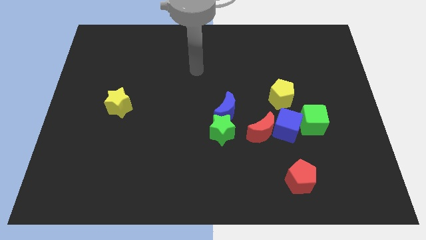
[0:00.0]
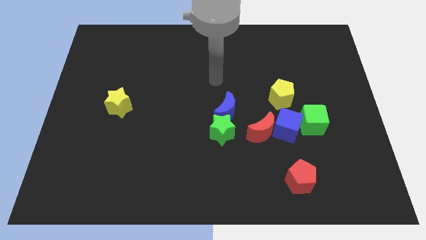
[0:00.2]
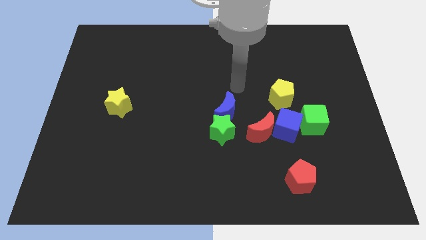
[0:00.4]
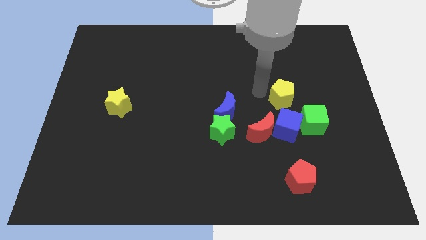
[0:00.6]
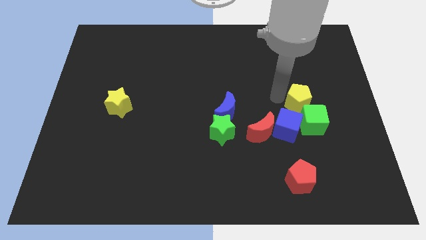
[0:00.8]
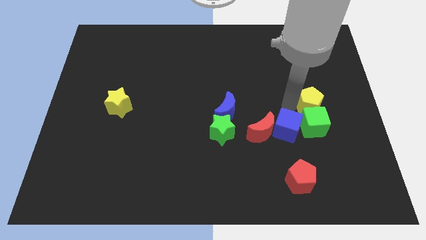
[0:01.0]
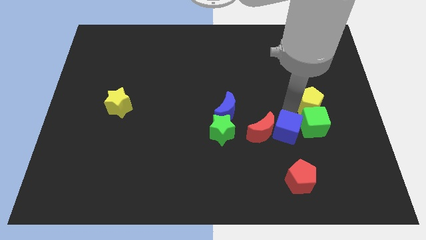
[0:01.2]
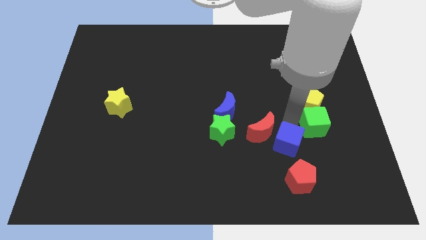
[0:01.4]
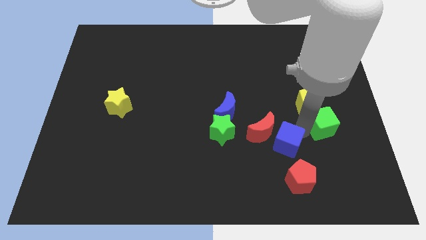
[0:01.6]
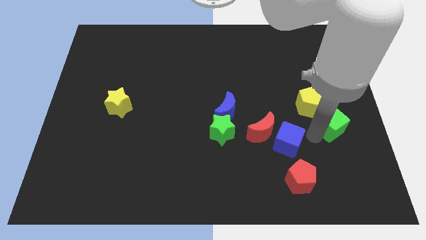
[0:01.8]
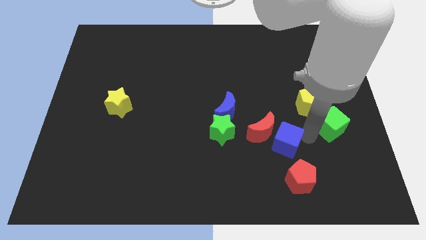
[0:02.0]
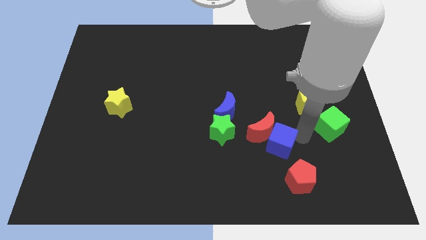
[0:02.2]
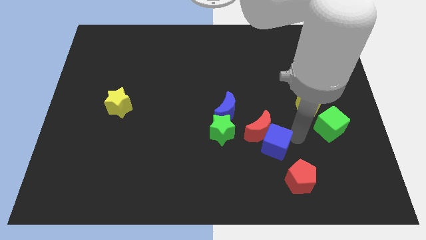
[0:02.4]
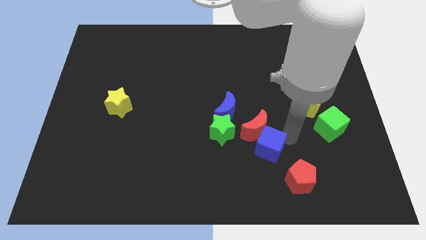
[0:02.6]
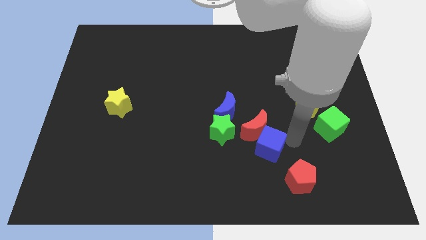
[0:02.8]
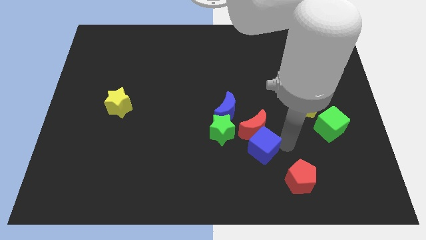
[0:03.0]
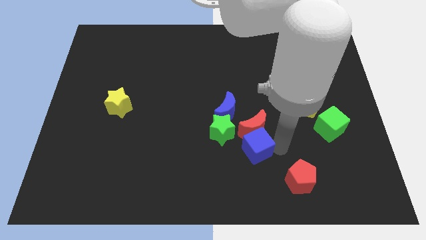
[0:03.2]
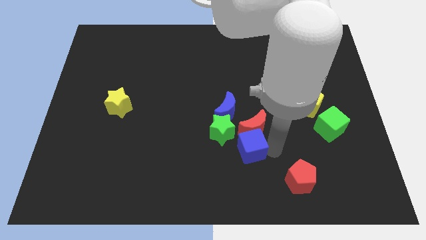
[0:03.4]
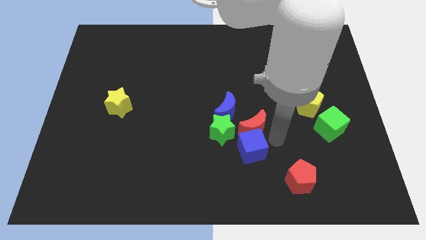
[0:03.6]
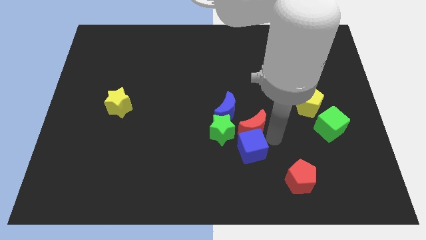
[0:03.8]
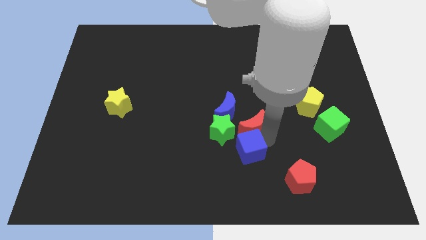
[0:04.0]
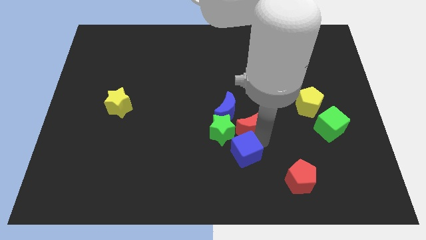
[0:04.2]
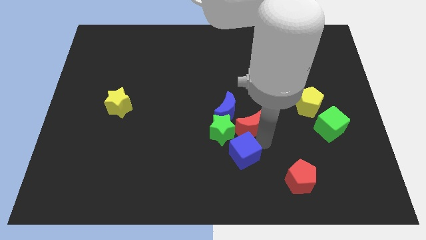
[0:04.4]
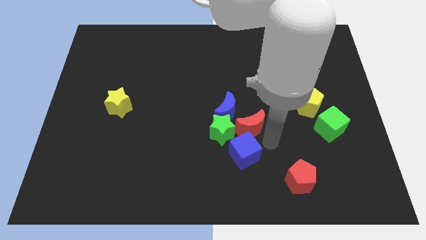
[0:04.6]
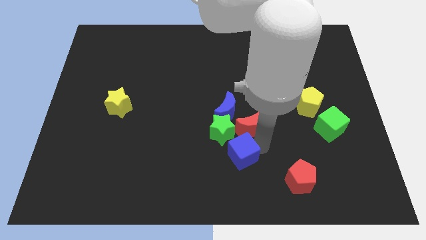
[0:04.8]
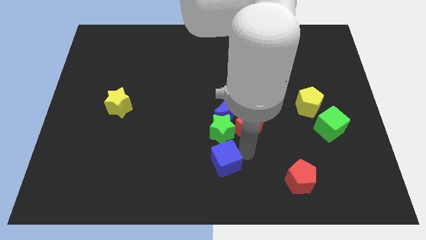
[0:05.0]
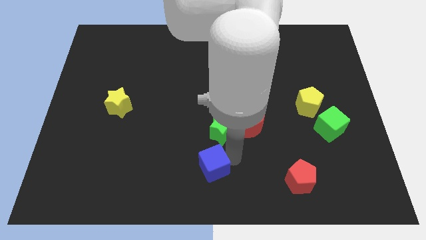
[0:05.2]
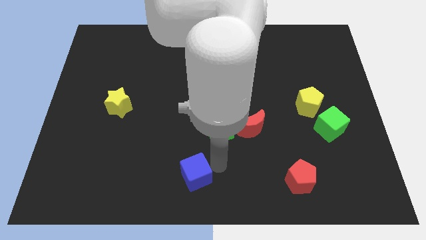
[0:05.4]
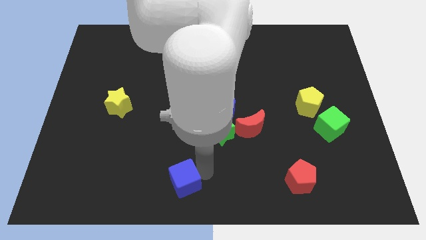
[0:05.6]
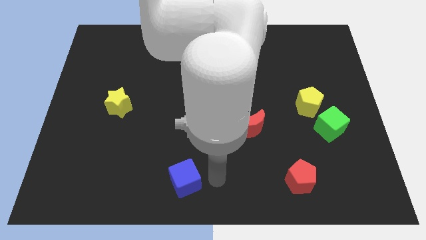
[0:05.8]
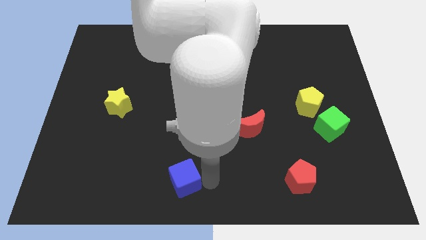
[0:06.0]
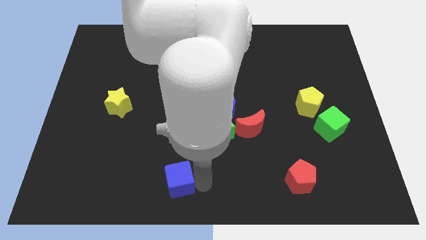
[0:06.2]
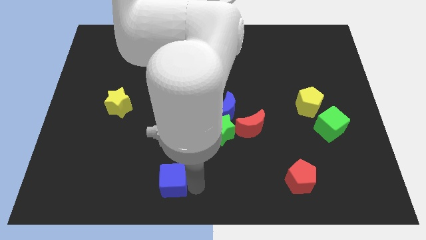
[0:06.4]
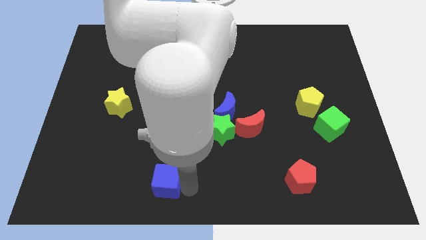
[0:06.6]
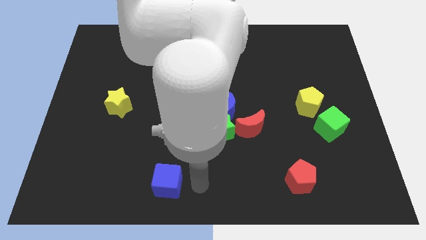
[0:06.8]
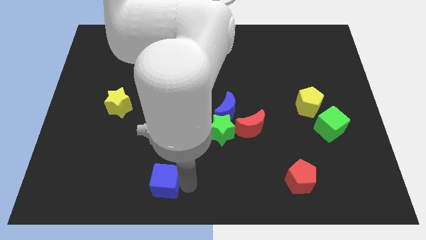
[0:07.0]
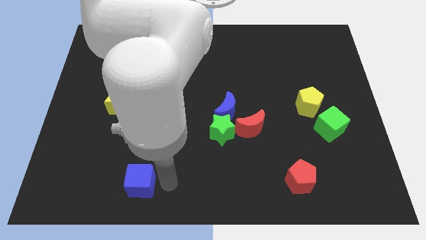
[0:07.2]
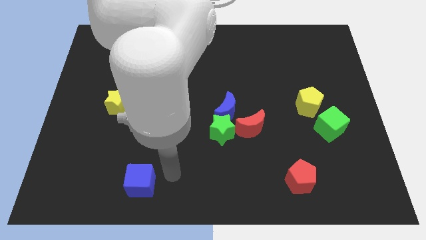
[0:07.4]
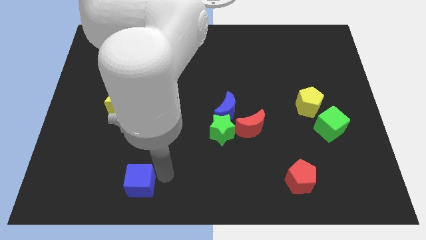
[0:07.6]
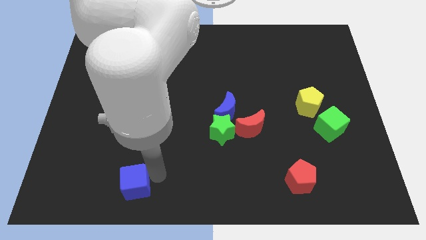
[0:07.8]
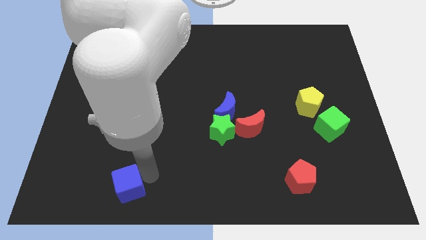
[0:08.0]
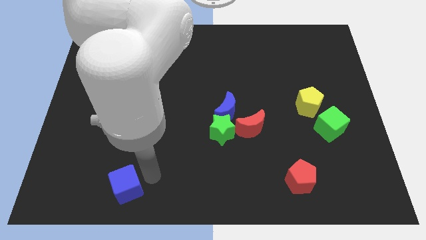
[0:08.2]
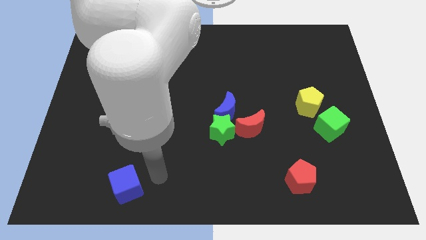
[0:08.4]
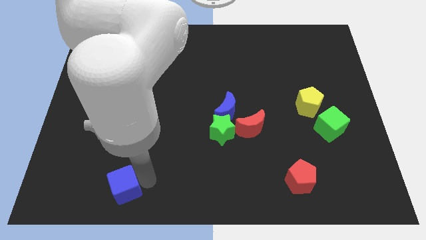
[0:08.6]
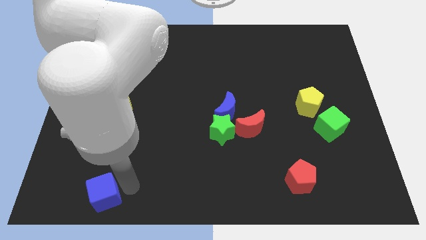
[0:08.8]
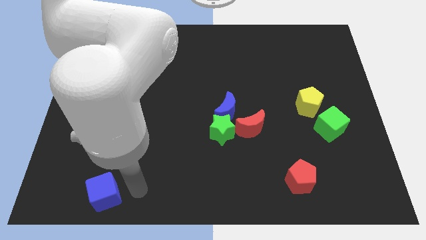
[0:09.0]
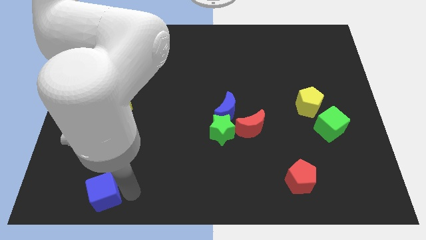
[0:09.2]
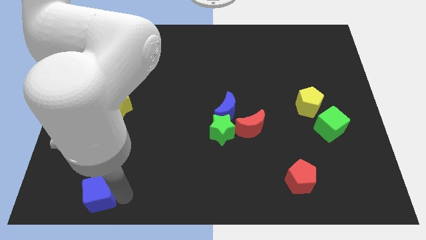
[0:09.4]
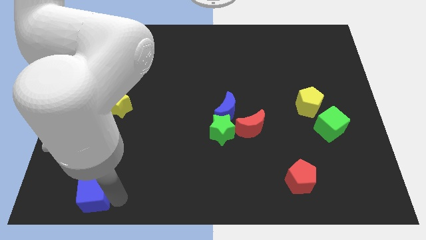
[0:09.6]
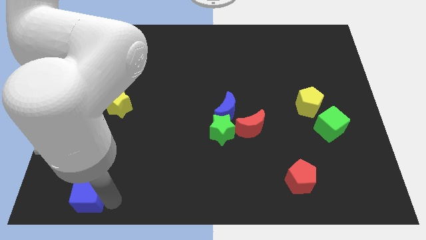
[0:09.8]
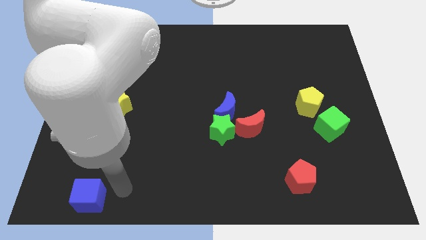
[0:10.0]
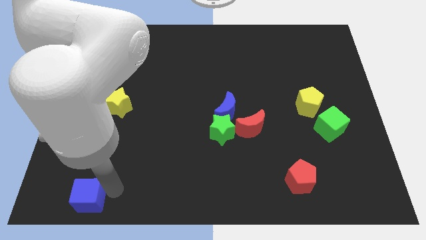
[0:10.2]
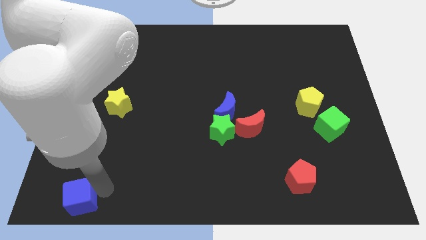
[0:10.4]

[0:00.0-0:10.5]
put the blue cube to the bottom left of the board

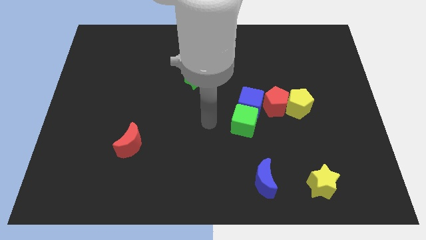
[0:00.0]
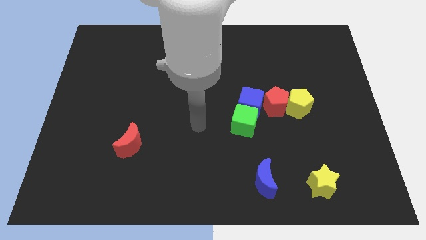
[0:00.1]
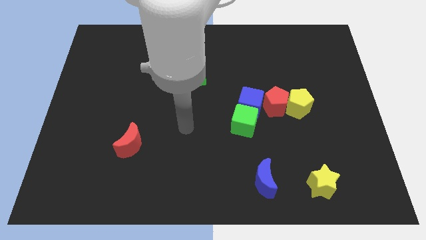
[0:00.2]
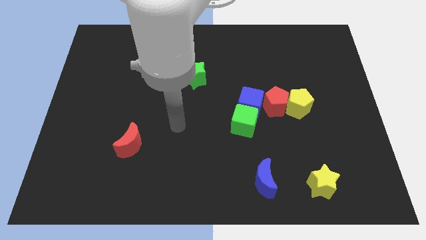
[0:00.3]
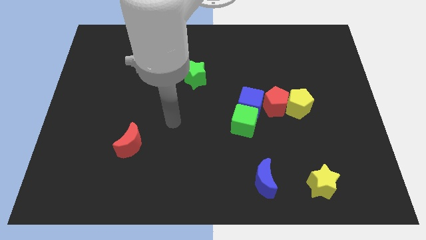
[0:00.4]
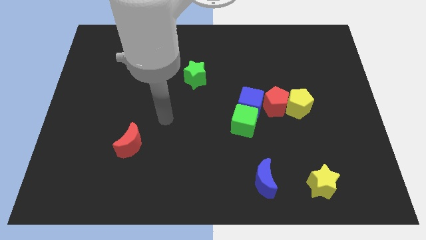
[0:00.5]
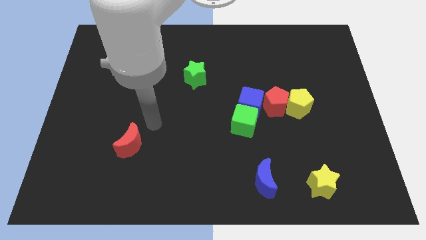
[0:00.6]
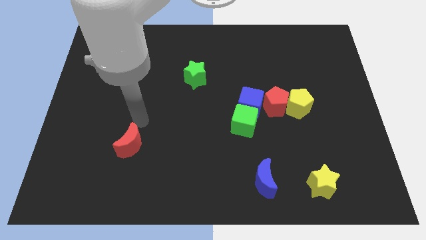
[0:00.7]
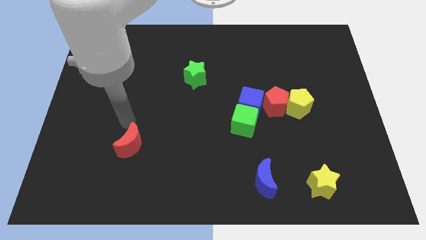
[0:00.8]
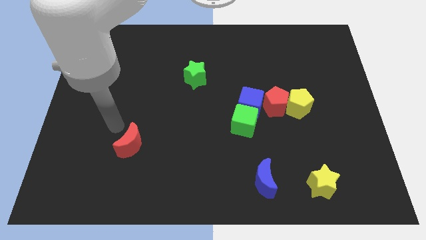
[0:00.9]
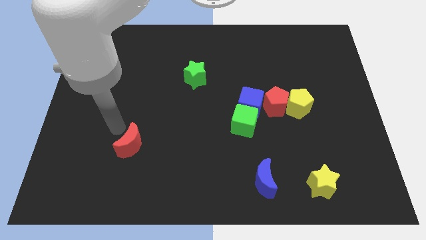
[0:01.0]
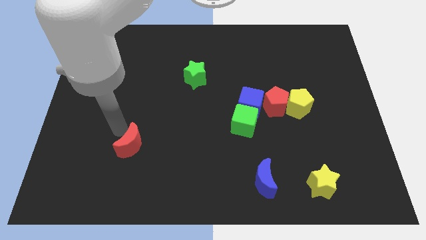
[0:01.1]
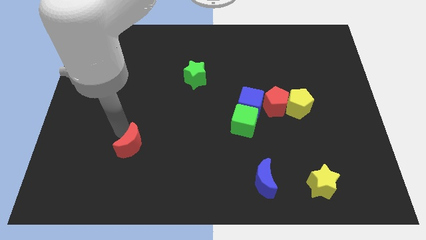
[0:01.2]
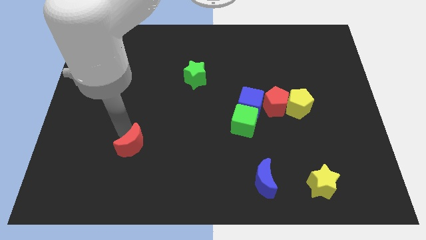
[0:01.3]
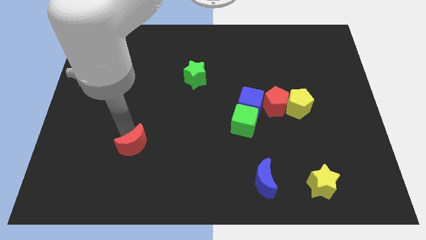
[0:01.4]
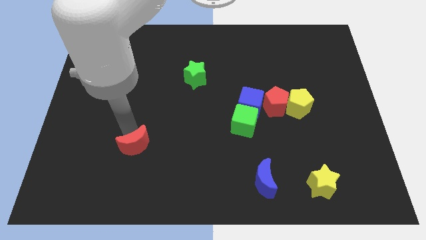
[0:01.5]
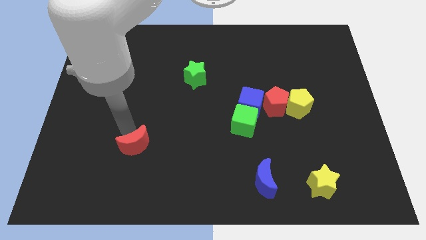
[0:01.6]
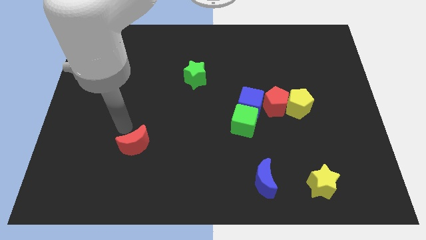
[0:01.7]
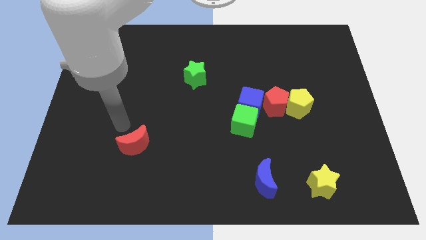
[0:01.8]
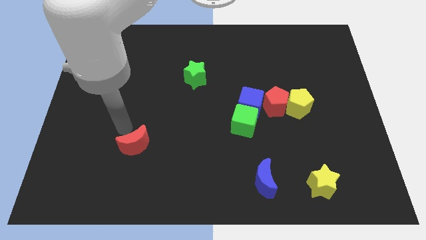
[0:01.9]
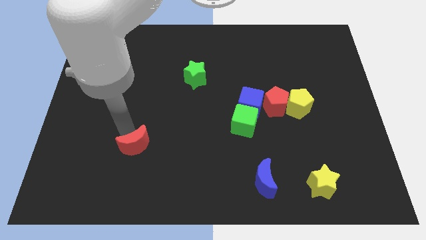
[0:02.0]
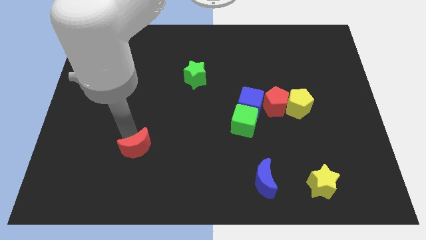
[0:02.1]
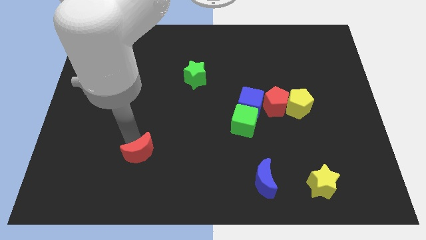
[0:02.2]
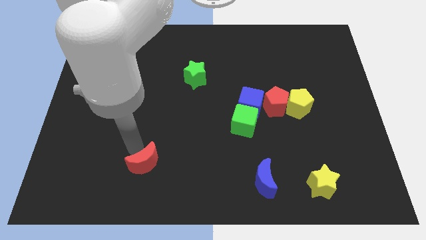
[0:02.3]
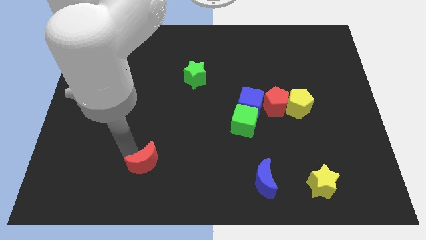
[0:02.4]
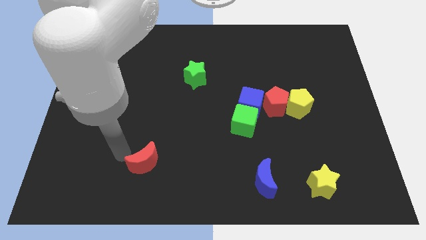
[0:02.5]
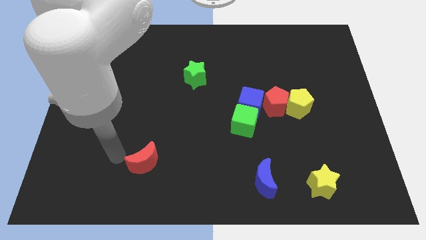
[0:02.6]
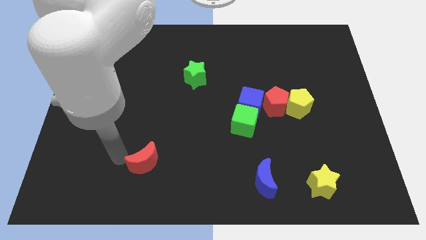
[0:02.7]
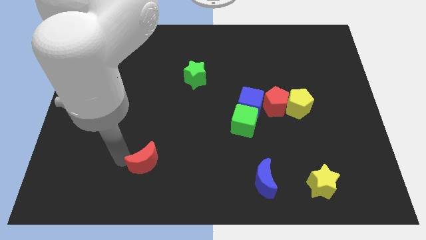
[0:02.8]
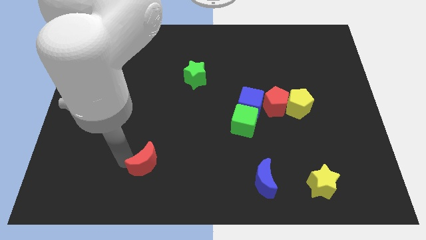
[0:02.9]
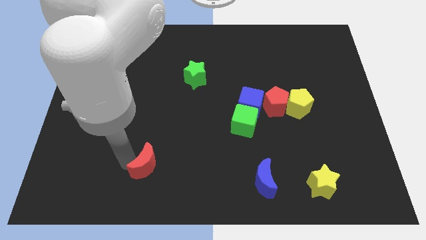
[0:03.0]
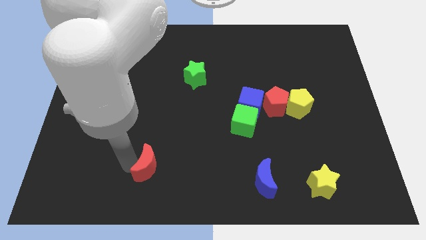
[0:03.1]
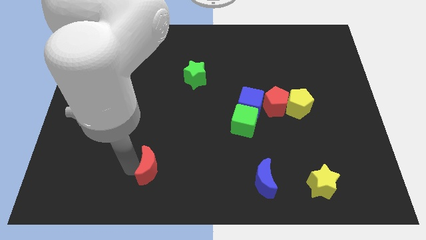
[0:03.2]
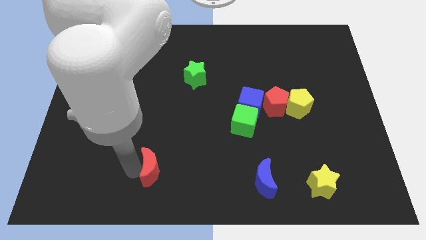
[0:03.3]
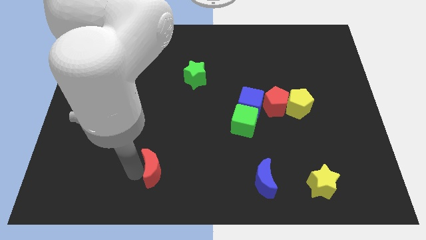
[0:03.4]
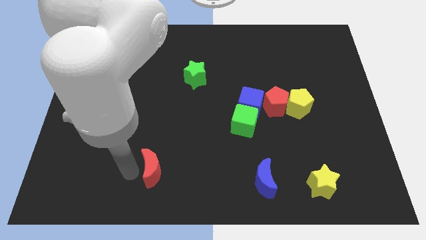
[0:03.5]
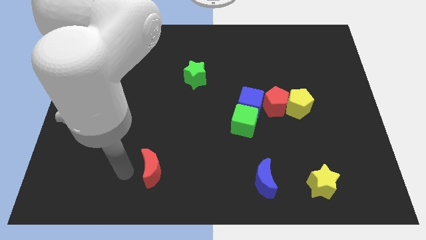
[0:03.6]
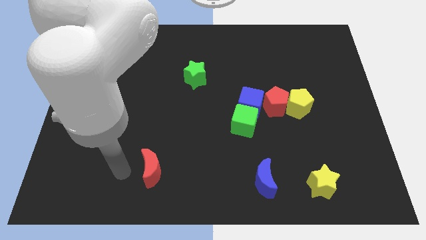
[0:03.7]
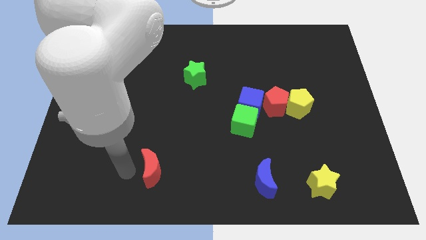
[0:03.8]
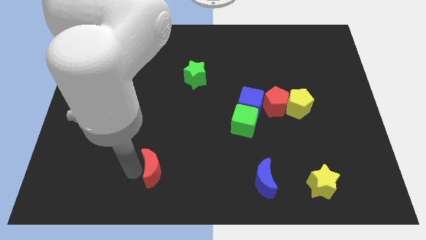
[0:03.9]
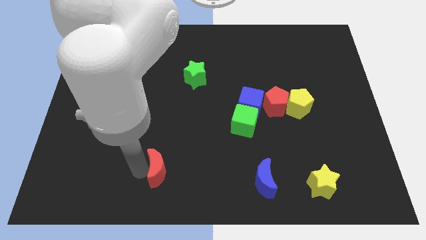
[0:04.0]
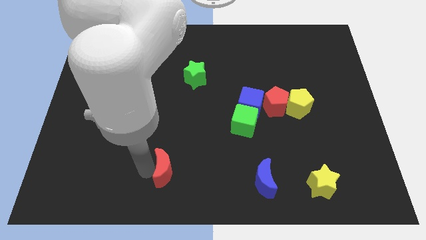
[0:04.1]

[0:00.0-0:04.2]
put the red moon to the bottom
